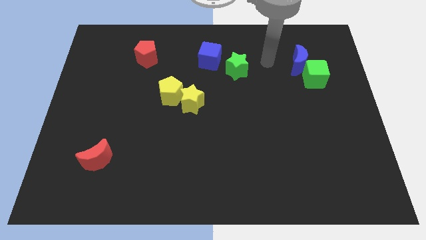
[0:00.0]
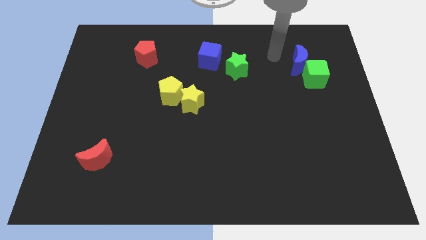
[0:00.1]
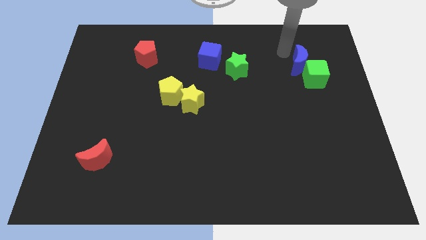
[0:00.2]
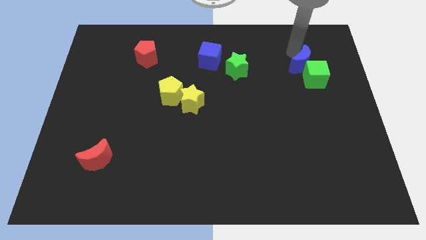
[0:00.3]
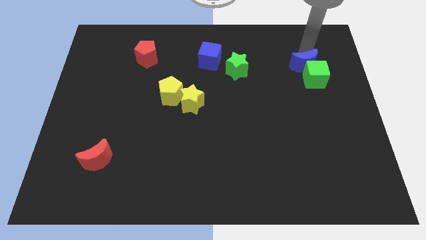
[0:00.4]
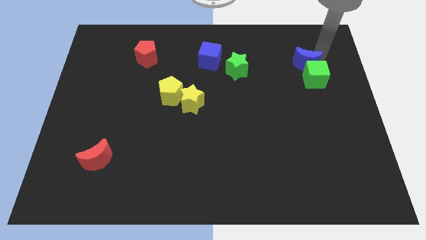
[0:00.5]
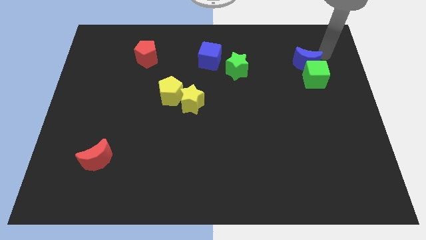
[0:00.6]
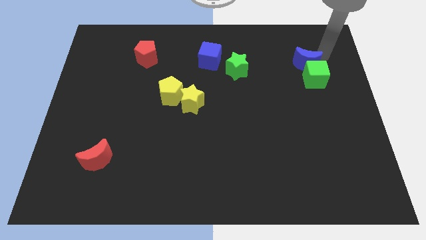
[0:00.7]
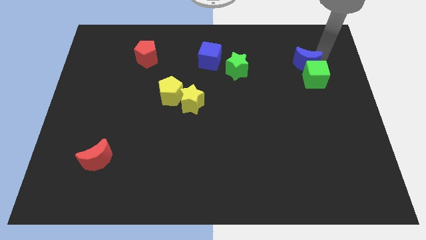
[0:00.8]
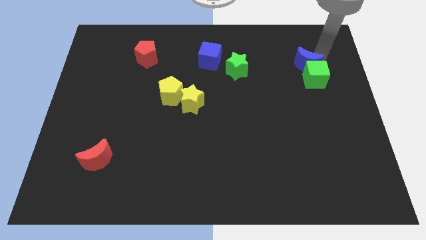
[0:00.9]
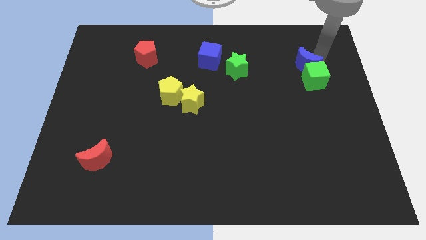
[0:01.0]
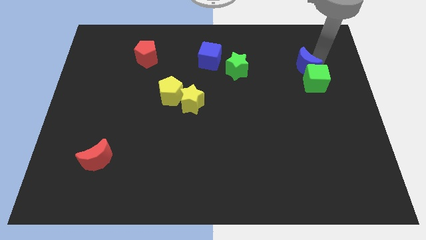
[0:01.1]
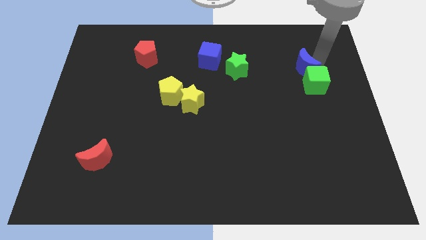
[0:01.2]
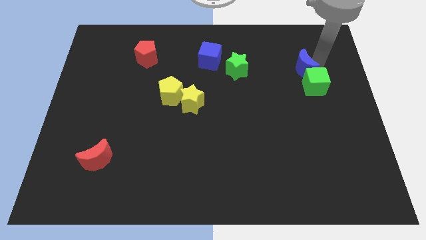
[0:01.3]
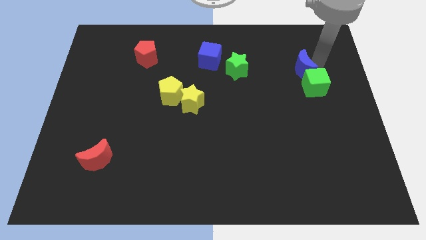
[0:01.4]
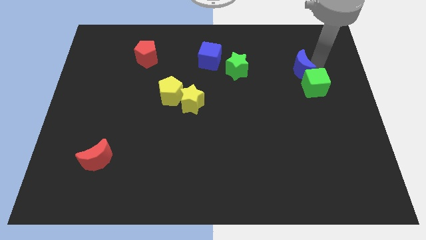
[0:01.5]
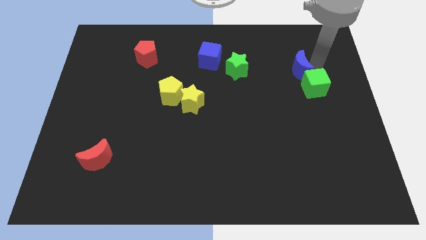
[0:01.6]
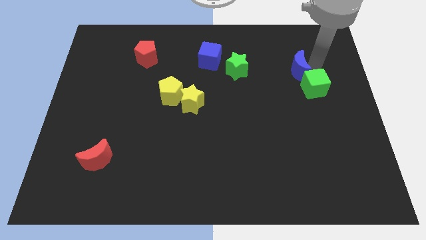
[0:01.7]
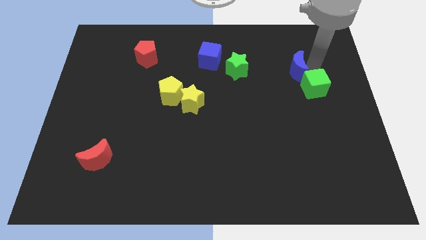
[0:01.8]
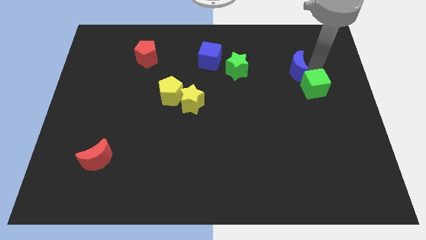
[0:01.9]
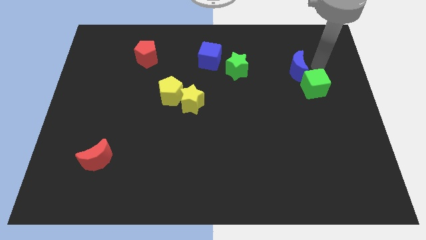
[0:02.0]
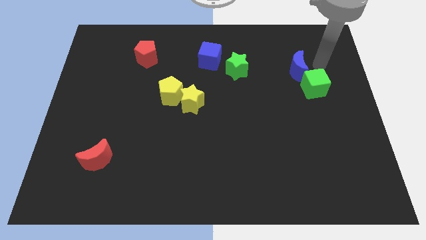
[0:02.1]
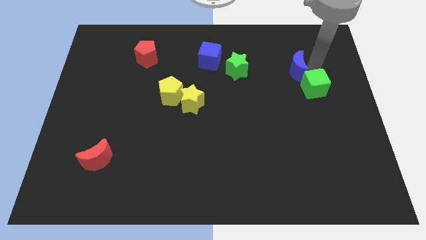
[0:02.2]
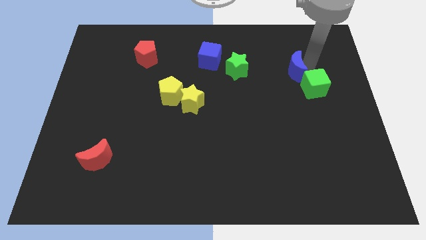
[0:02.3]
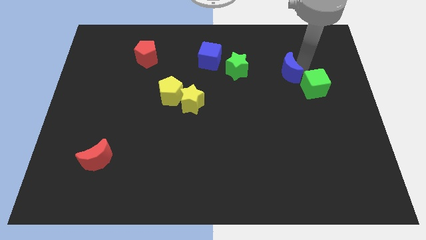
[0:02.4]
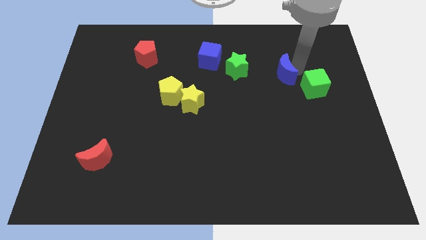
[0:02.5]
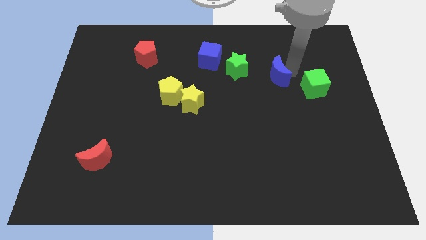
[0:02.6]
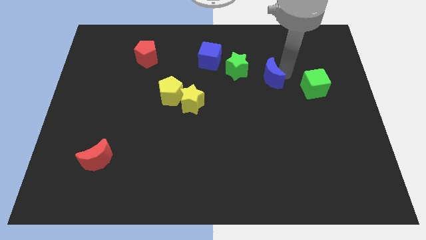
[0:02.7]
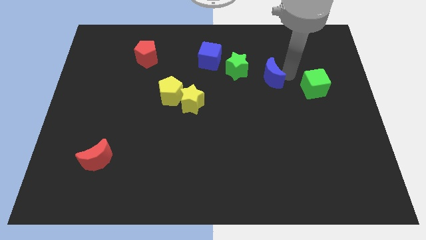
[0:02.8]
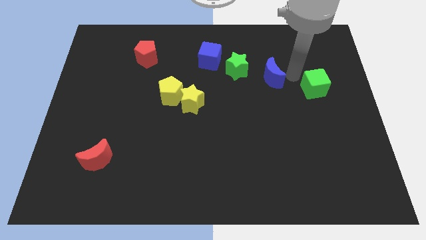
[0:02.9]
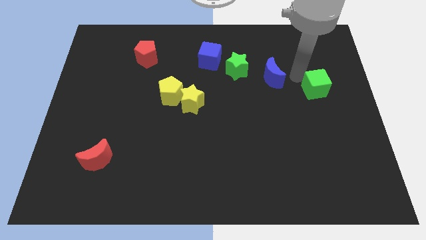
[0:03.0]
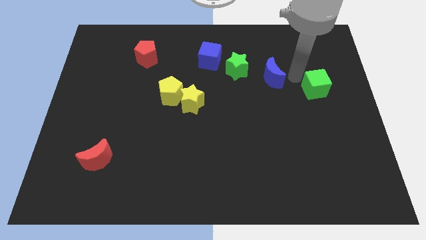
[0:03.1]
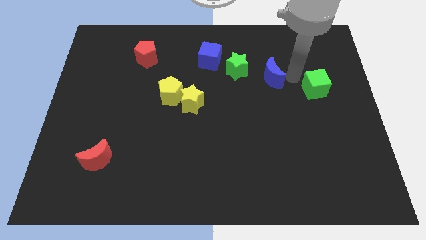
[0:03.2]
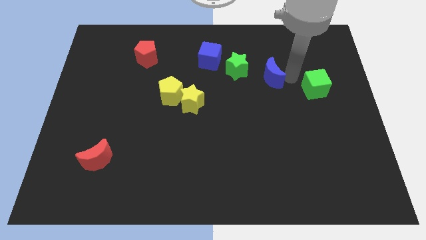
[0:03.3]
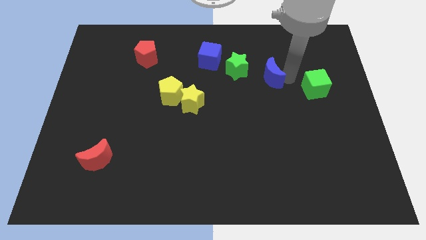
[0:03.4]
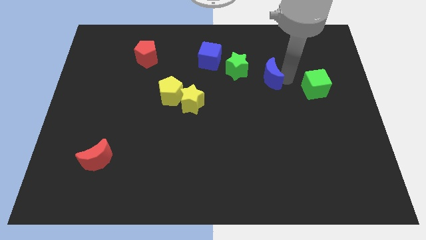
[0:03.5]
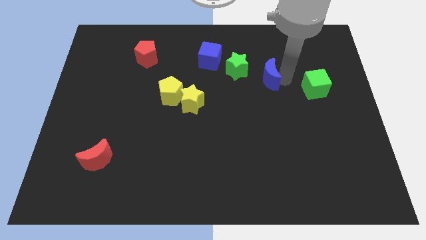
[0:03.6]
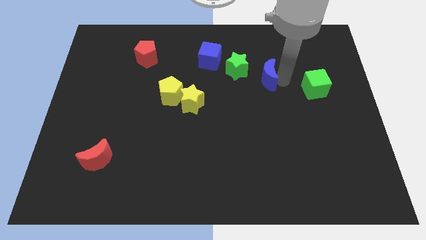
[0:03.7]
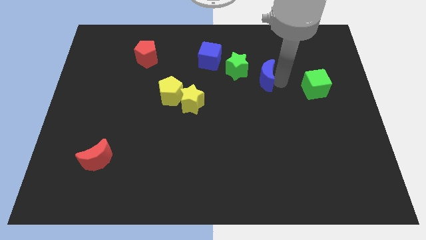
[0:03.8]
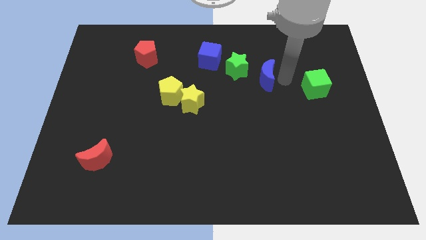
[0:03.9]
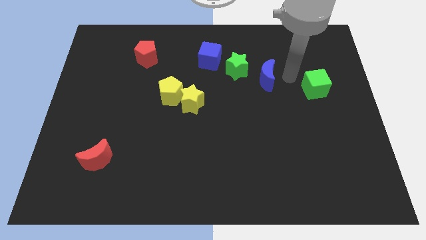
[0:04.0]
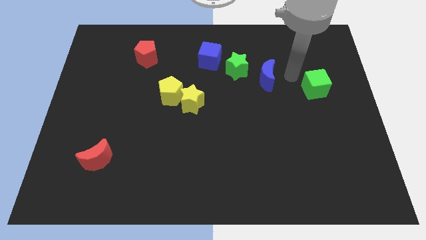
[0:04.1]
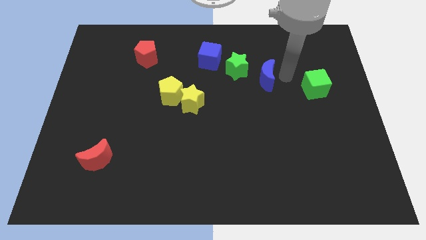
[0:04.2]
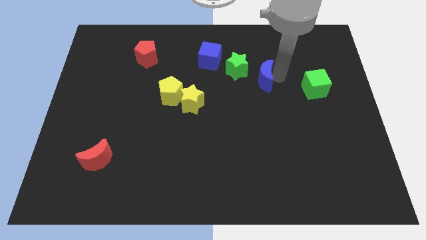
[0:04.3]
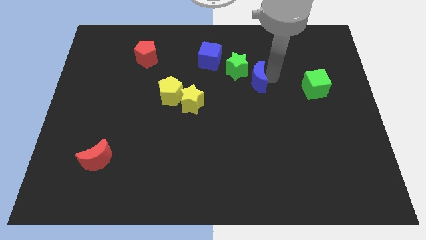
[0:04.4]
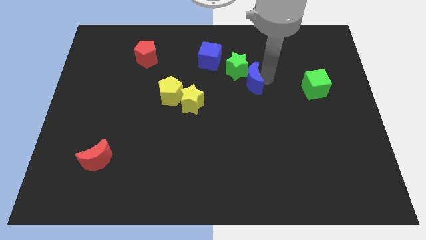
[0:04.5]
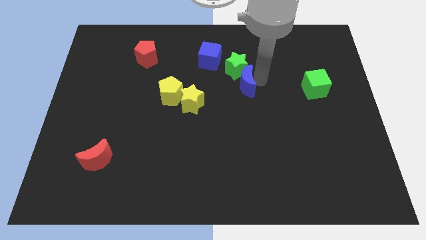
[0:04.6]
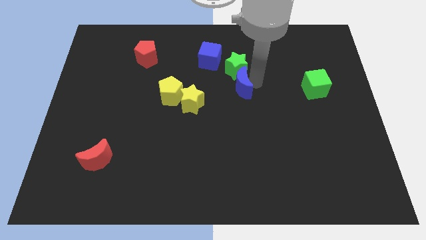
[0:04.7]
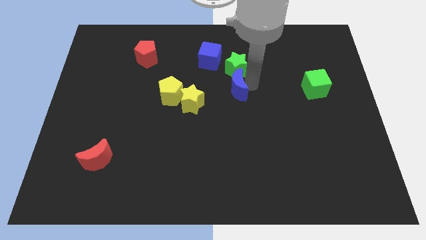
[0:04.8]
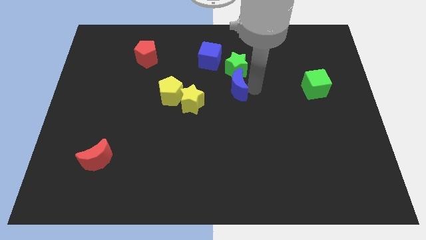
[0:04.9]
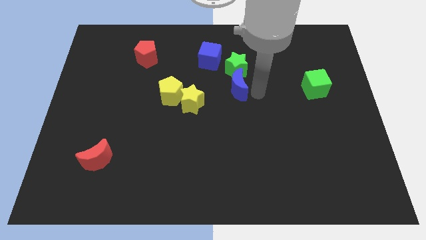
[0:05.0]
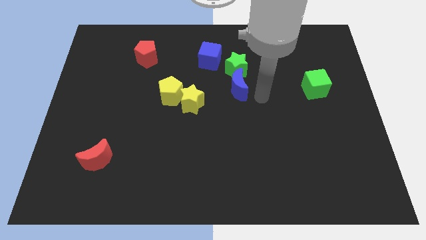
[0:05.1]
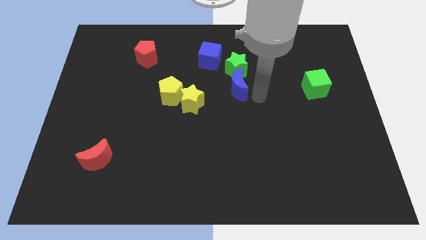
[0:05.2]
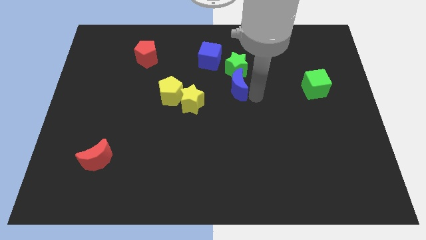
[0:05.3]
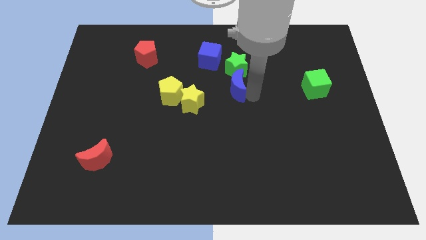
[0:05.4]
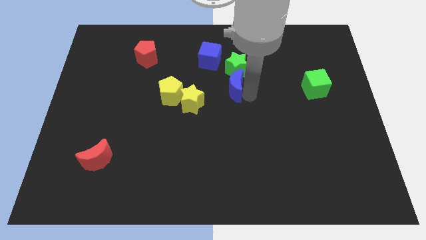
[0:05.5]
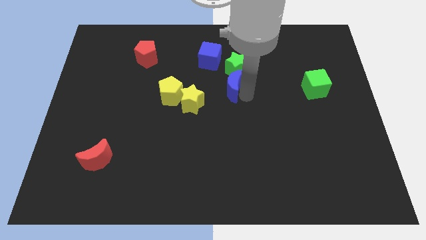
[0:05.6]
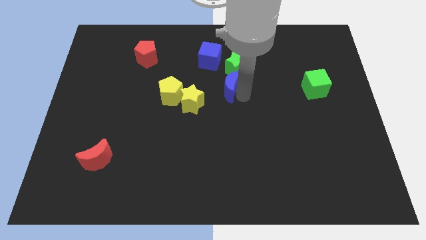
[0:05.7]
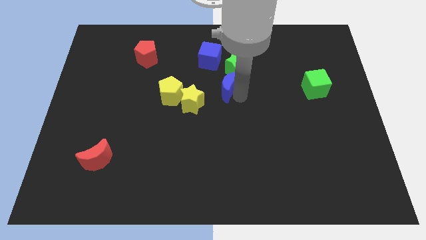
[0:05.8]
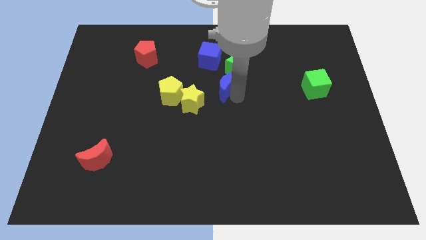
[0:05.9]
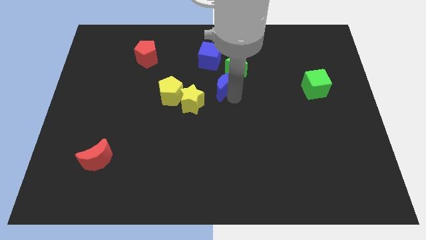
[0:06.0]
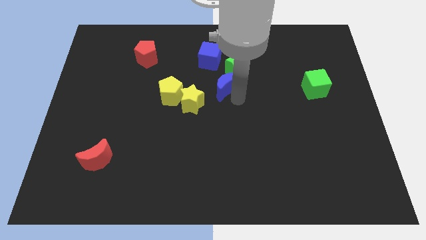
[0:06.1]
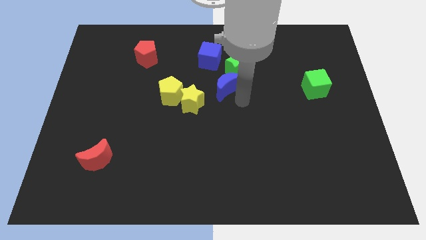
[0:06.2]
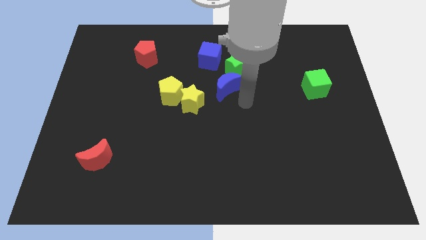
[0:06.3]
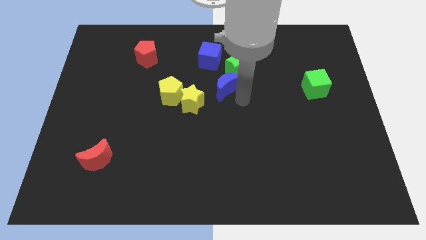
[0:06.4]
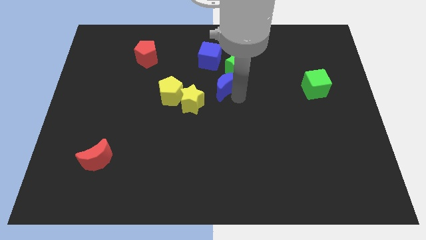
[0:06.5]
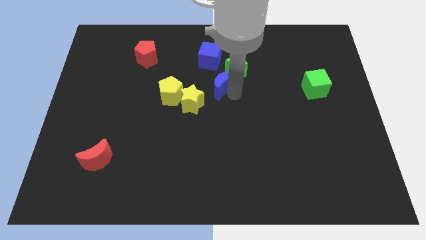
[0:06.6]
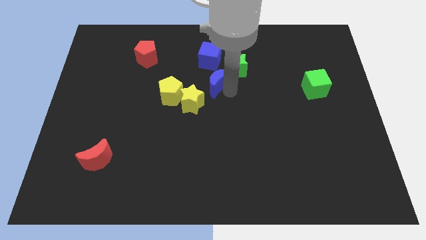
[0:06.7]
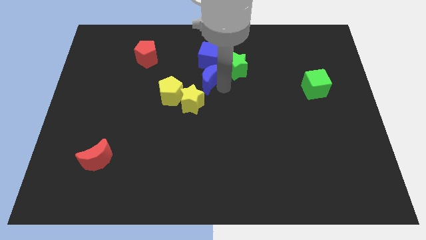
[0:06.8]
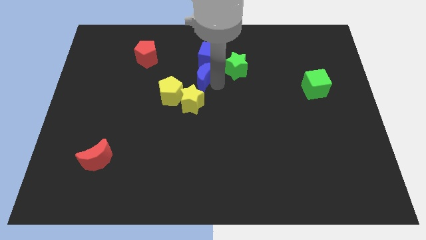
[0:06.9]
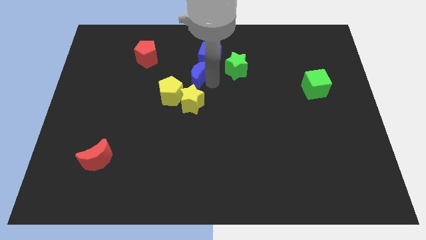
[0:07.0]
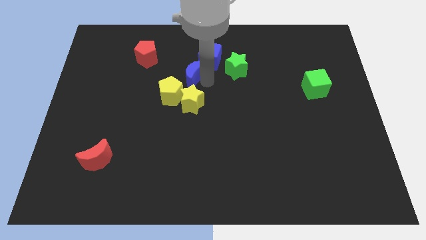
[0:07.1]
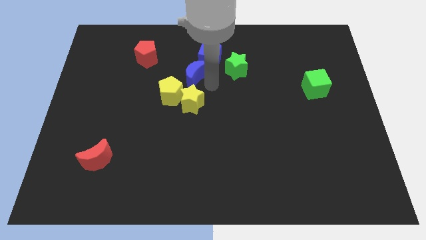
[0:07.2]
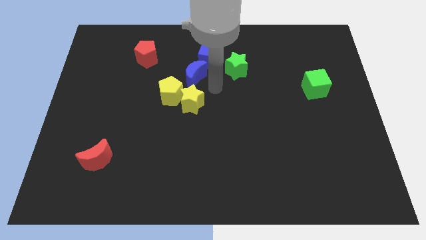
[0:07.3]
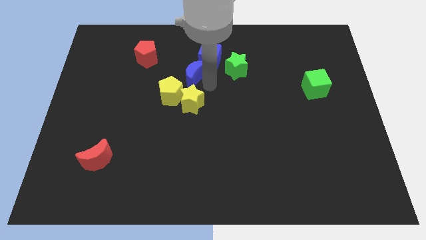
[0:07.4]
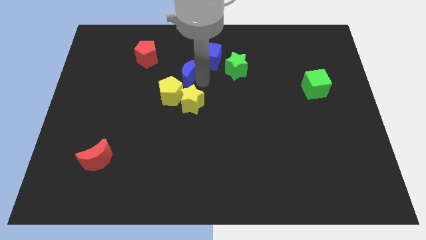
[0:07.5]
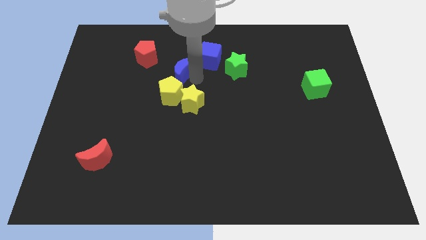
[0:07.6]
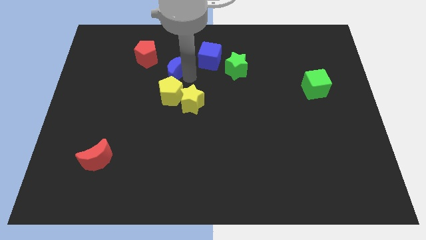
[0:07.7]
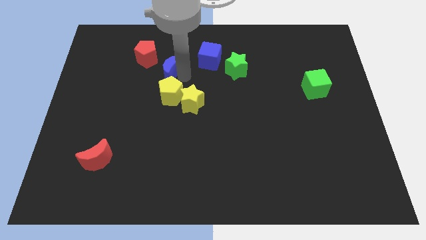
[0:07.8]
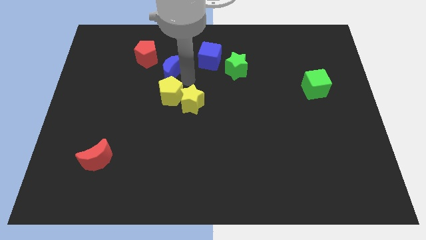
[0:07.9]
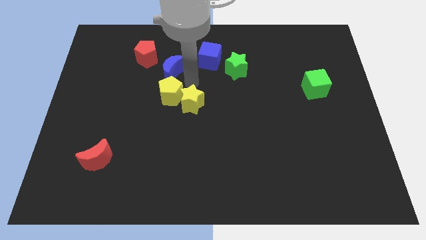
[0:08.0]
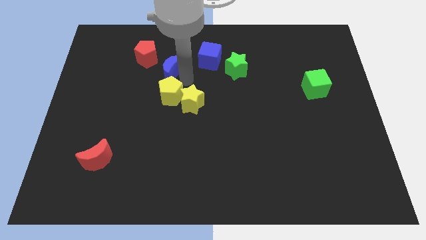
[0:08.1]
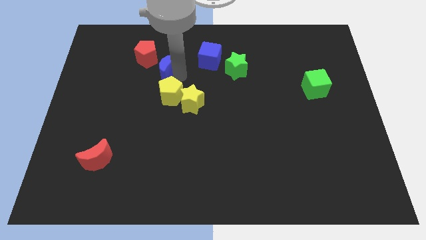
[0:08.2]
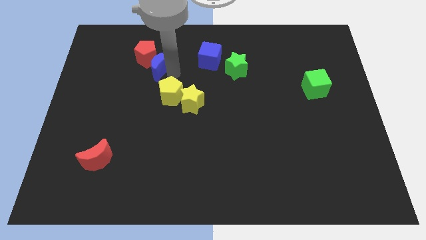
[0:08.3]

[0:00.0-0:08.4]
slide the blue moon towards the red pentagon
